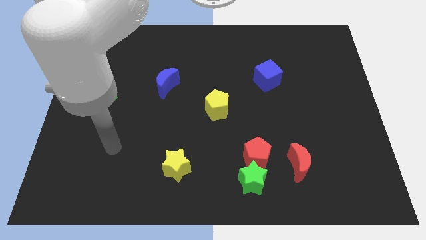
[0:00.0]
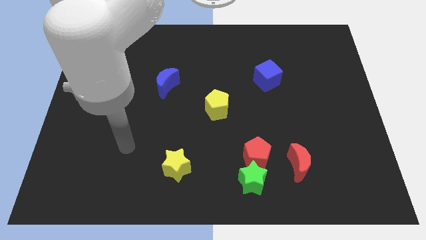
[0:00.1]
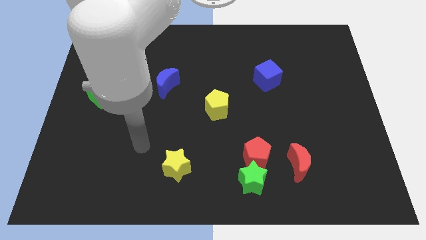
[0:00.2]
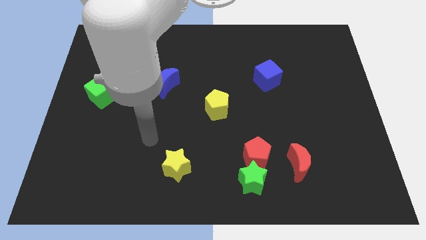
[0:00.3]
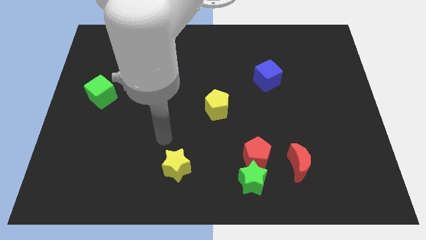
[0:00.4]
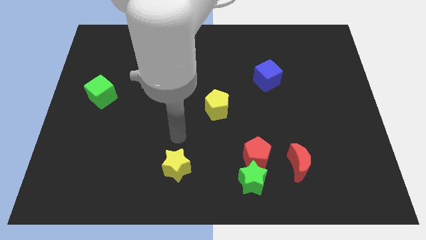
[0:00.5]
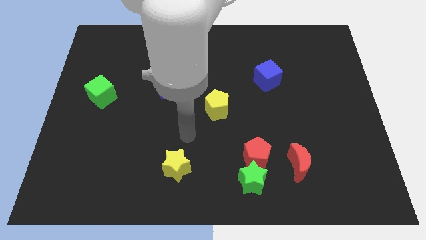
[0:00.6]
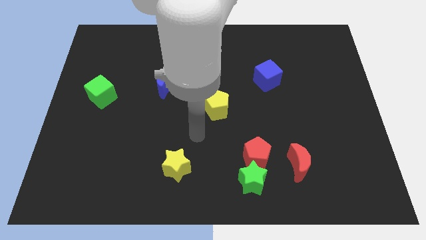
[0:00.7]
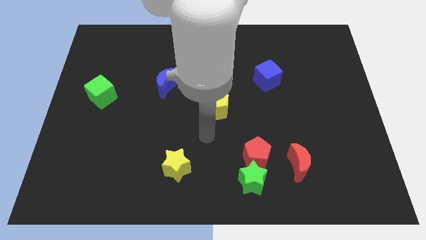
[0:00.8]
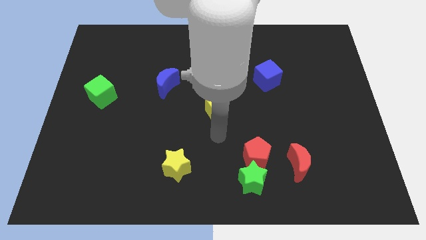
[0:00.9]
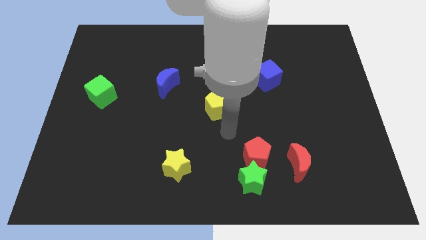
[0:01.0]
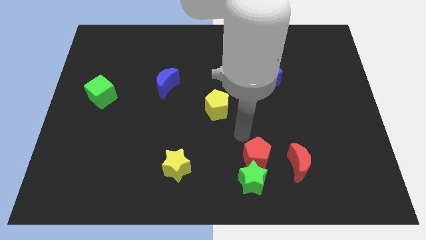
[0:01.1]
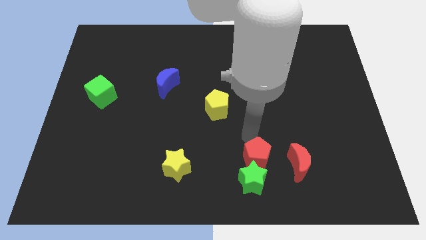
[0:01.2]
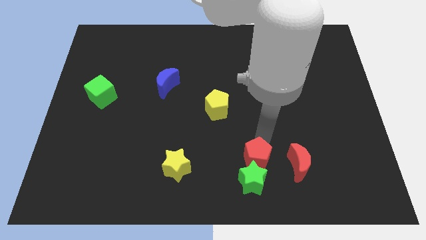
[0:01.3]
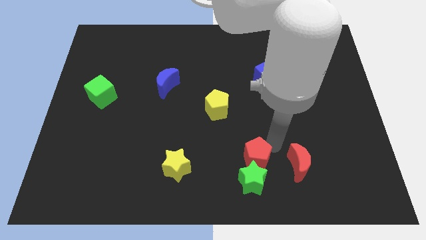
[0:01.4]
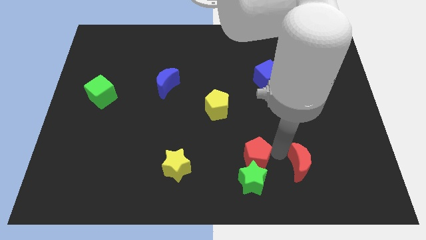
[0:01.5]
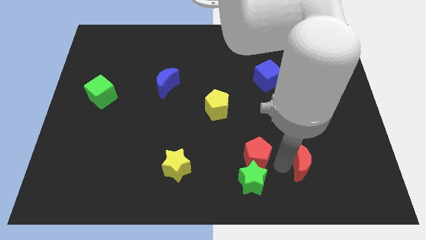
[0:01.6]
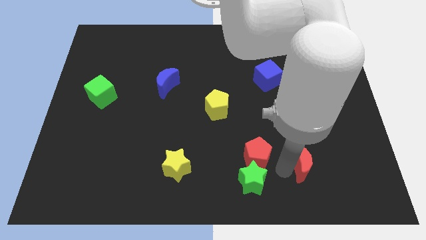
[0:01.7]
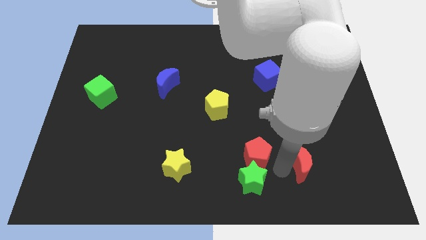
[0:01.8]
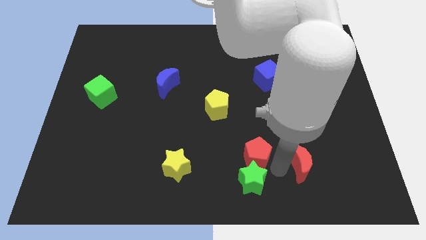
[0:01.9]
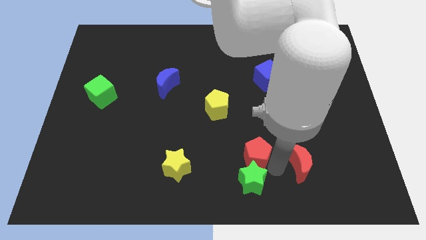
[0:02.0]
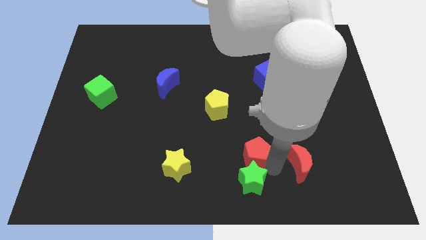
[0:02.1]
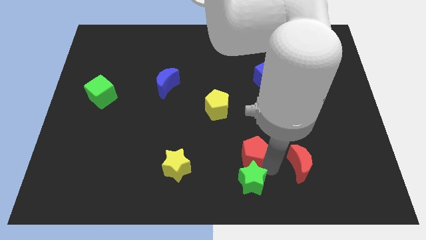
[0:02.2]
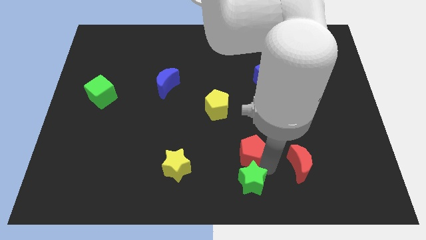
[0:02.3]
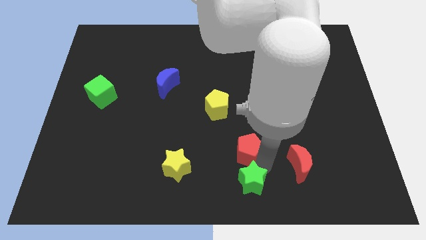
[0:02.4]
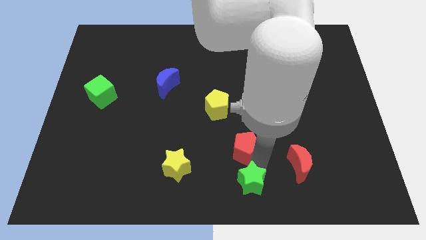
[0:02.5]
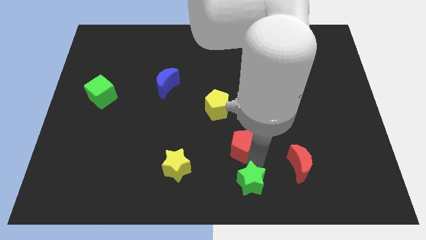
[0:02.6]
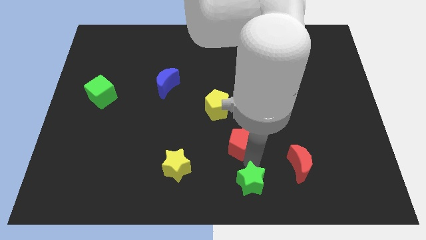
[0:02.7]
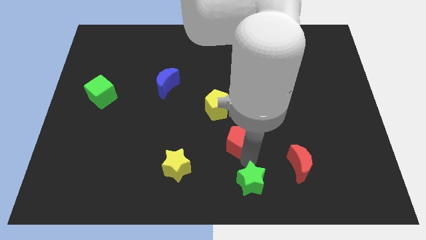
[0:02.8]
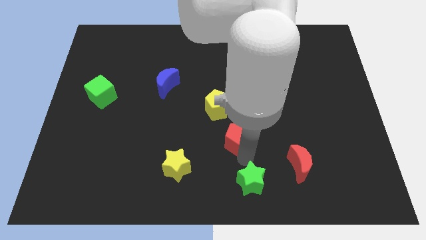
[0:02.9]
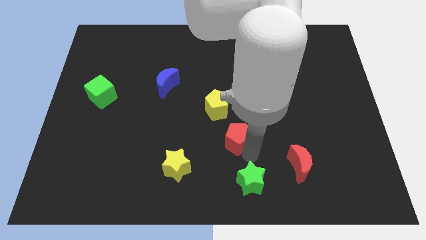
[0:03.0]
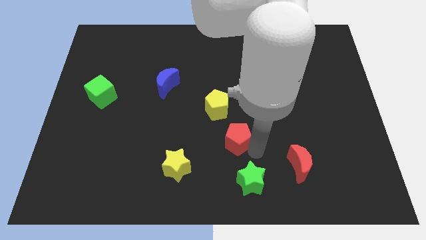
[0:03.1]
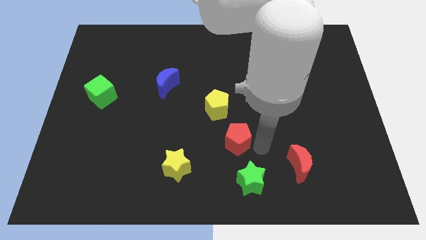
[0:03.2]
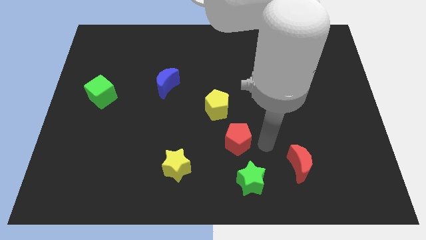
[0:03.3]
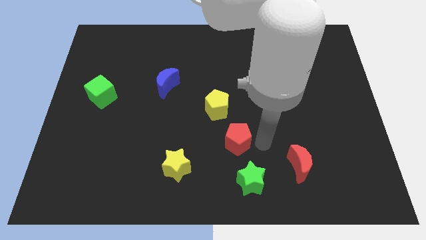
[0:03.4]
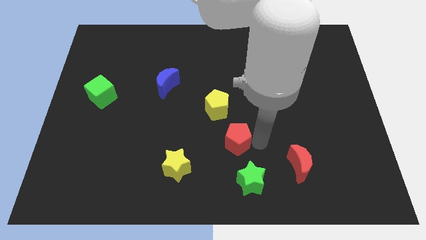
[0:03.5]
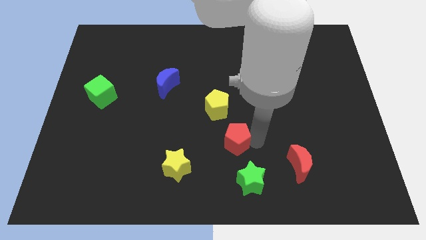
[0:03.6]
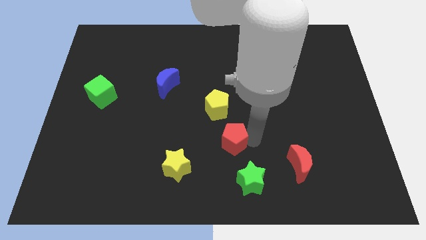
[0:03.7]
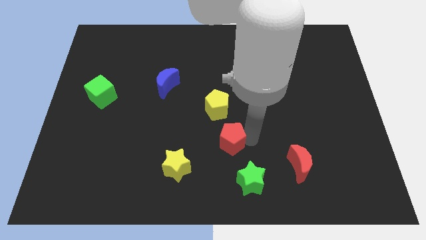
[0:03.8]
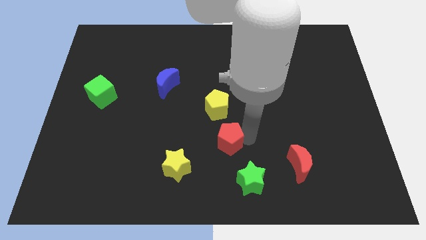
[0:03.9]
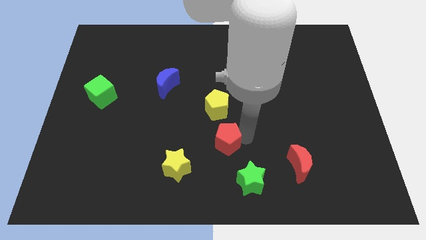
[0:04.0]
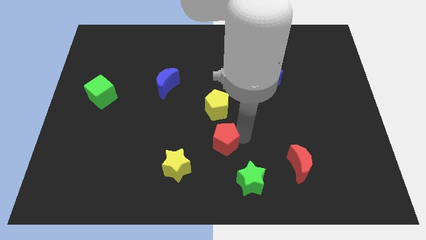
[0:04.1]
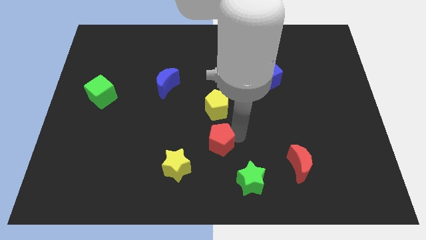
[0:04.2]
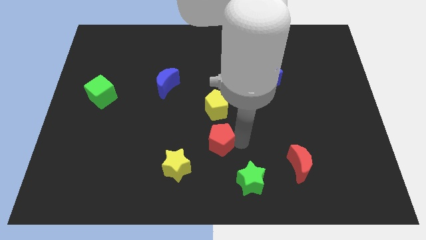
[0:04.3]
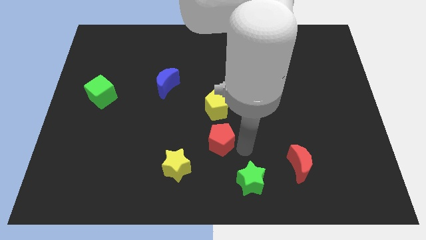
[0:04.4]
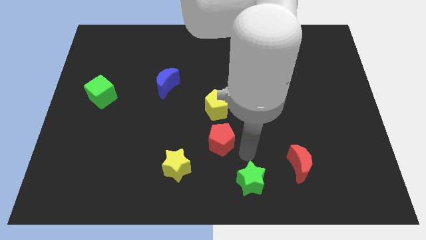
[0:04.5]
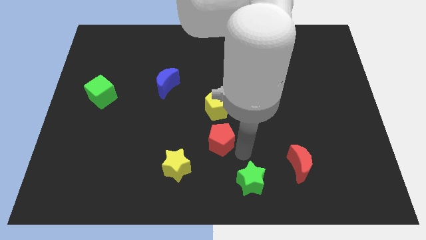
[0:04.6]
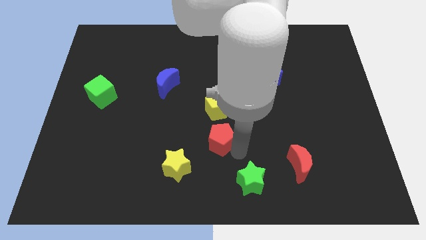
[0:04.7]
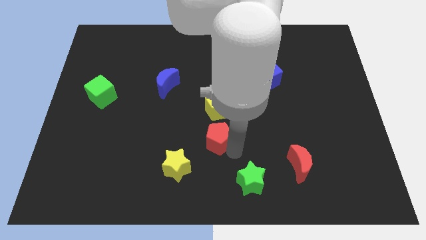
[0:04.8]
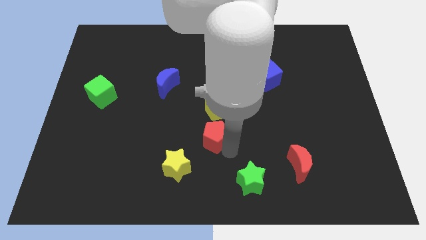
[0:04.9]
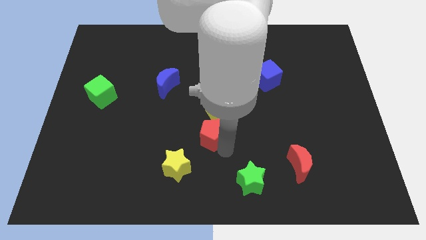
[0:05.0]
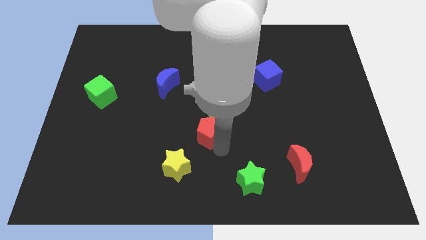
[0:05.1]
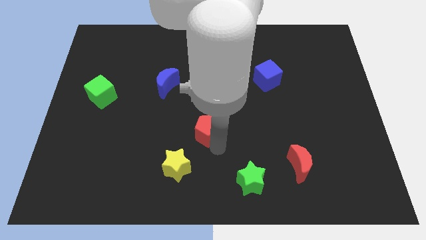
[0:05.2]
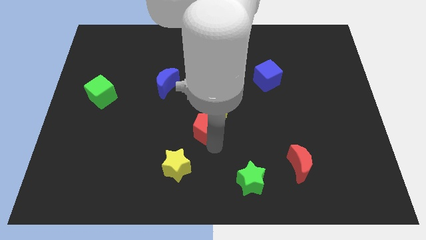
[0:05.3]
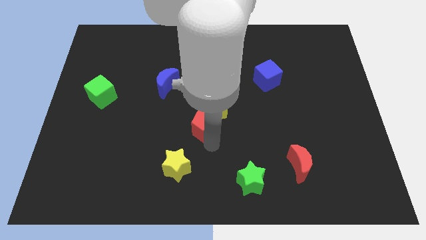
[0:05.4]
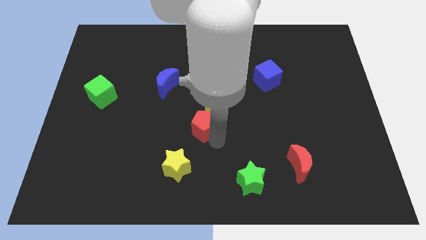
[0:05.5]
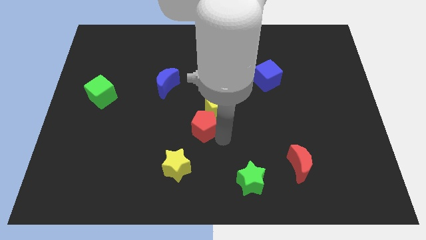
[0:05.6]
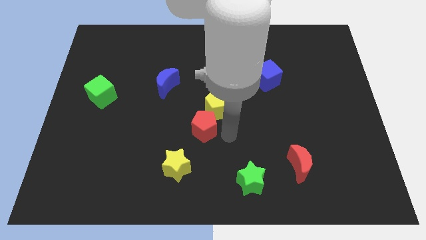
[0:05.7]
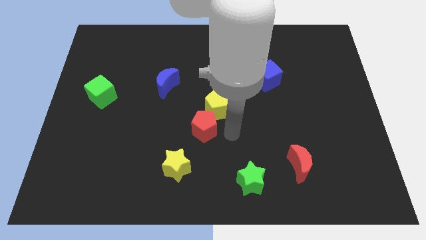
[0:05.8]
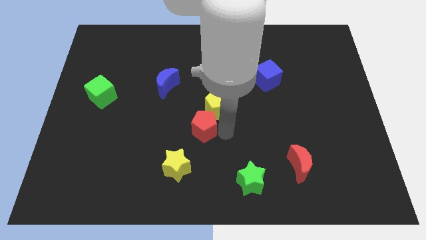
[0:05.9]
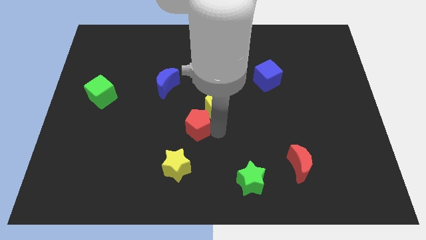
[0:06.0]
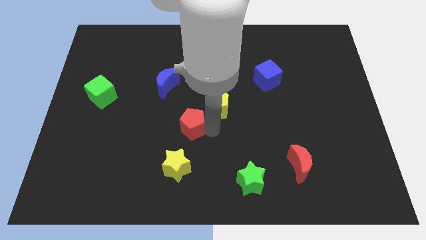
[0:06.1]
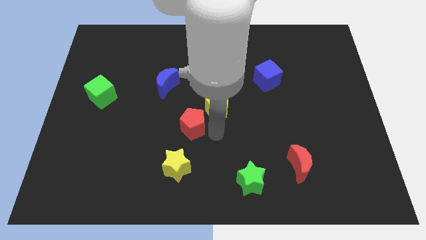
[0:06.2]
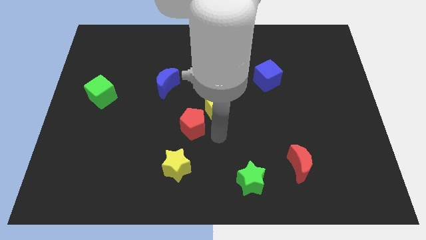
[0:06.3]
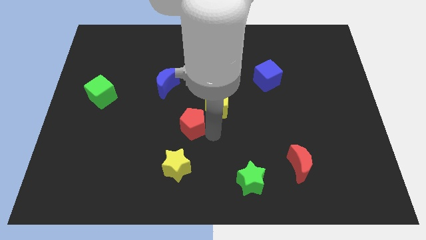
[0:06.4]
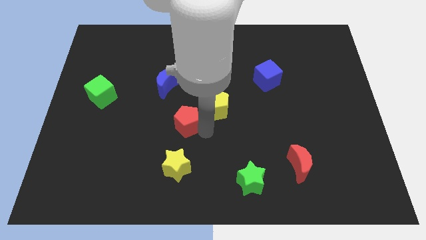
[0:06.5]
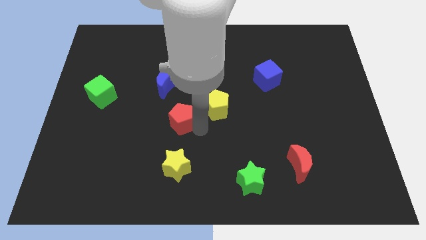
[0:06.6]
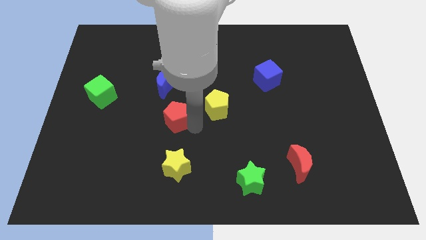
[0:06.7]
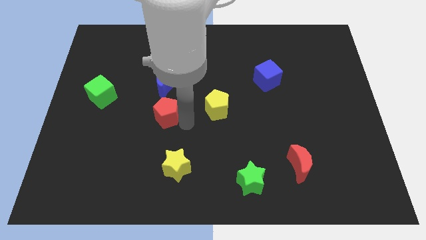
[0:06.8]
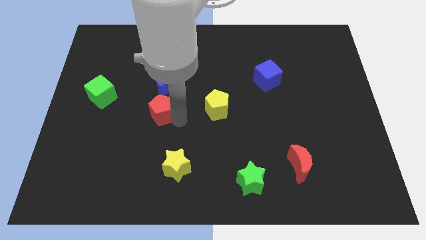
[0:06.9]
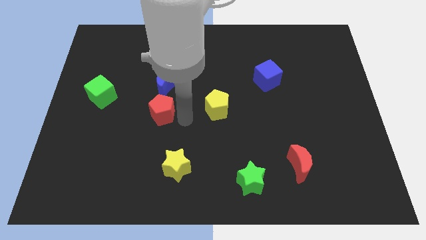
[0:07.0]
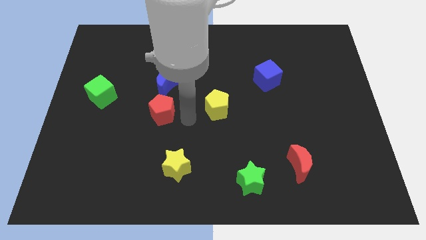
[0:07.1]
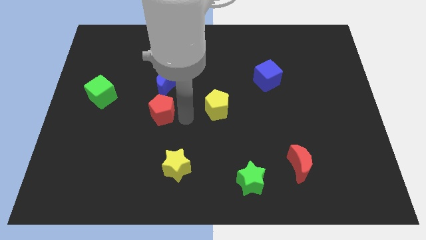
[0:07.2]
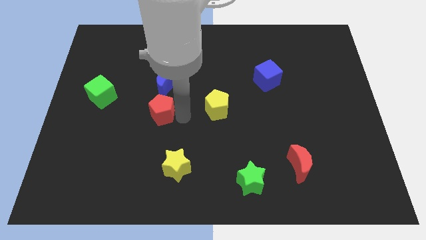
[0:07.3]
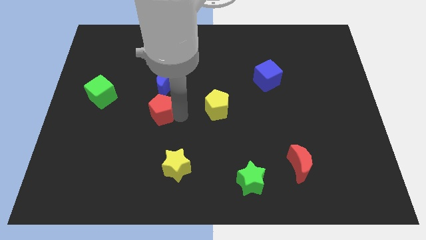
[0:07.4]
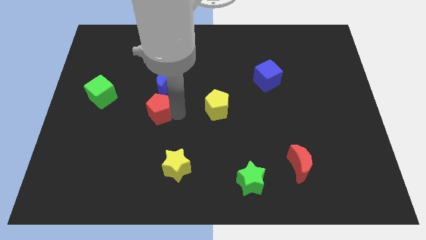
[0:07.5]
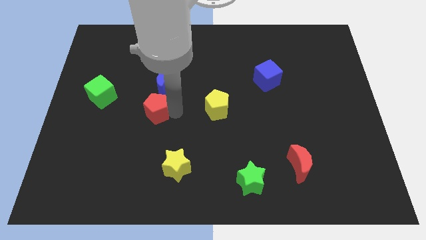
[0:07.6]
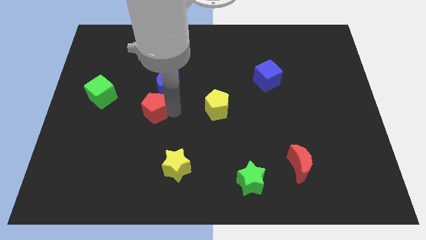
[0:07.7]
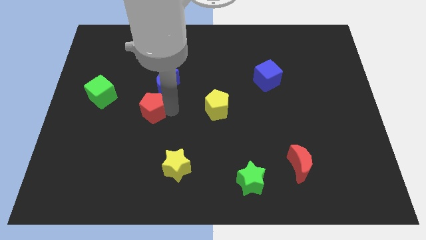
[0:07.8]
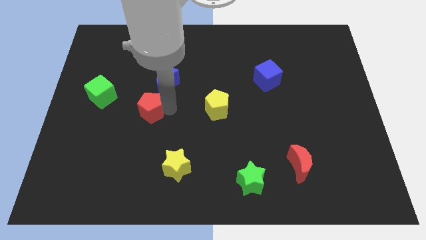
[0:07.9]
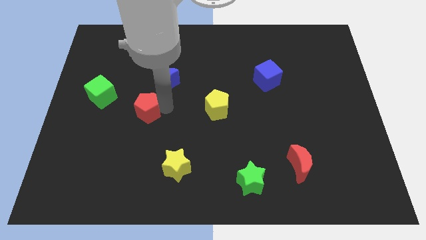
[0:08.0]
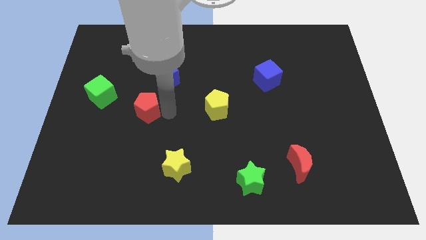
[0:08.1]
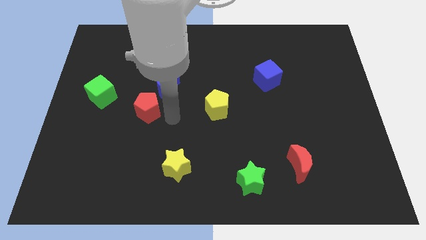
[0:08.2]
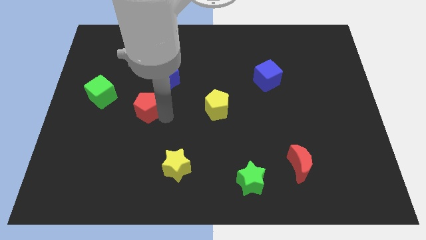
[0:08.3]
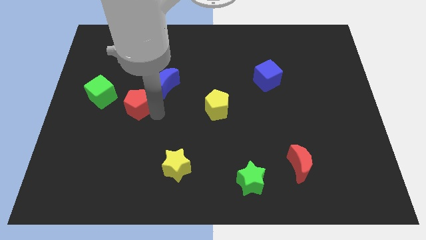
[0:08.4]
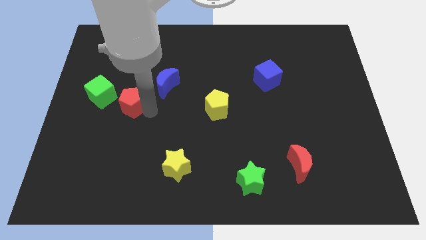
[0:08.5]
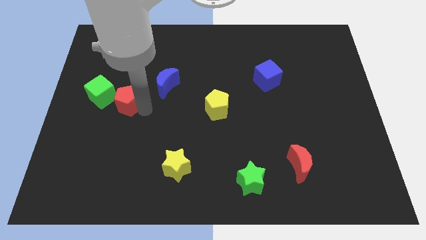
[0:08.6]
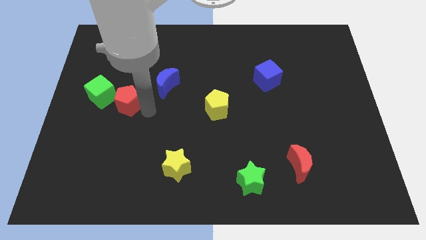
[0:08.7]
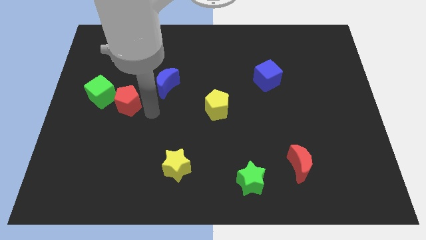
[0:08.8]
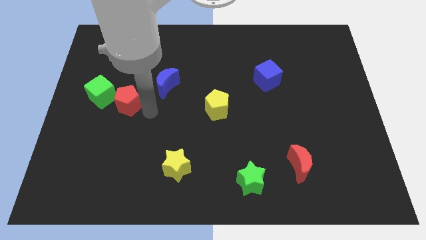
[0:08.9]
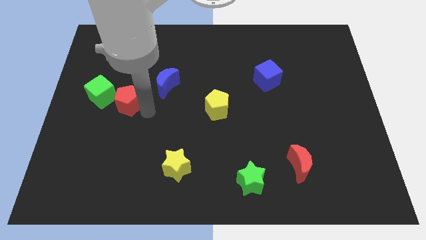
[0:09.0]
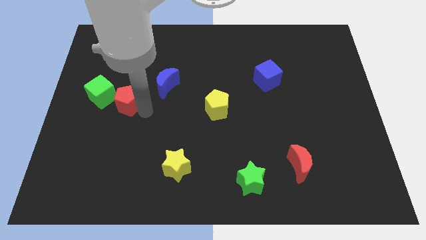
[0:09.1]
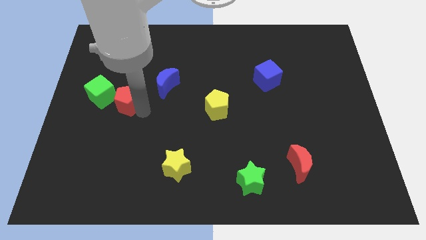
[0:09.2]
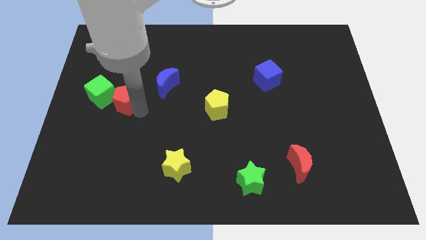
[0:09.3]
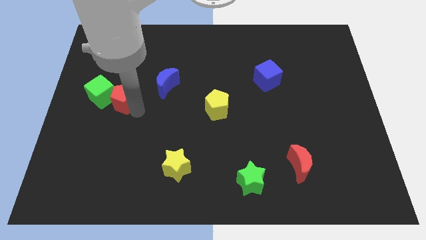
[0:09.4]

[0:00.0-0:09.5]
move the red pentagon to the green cube
